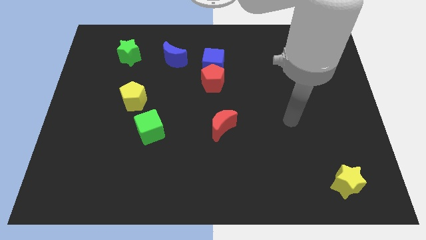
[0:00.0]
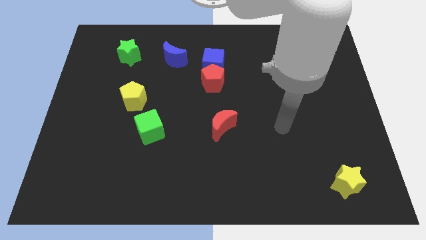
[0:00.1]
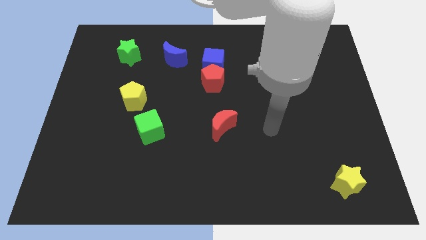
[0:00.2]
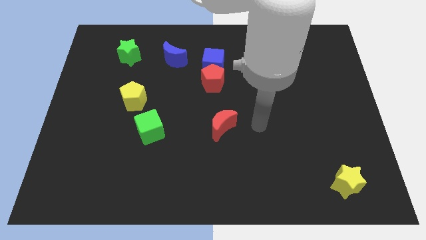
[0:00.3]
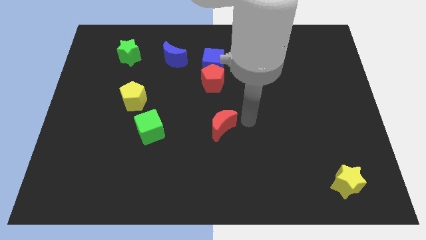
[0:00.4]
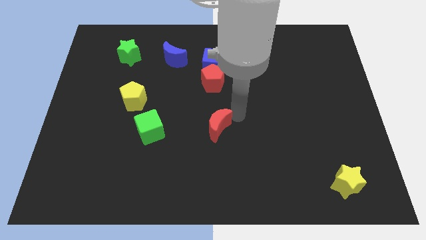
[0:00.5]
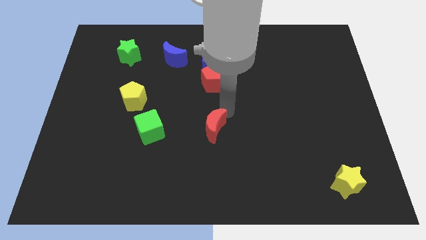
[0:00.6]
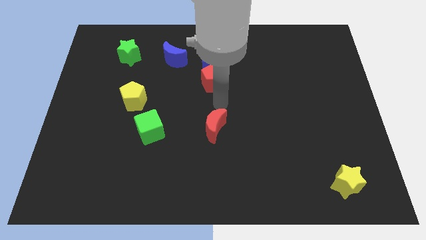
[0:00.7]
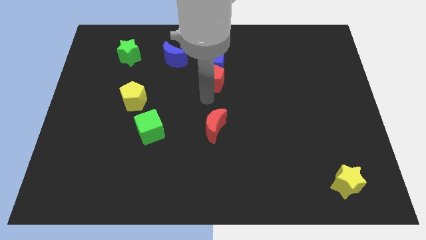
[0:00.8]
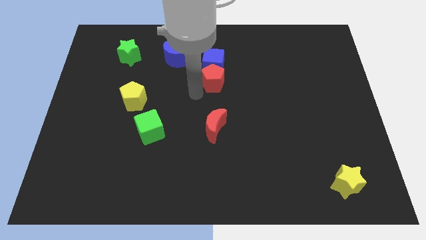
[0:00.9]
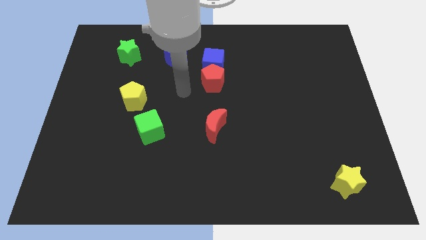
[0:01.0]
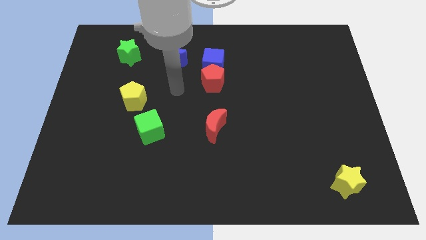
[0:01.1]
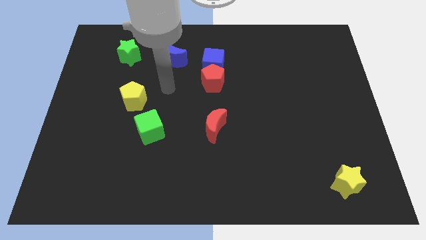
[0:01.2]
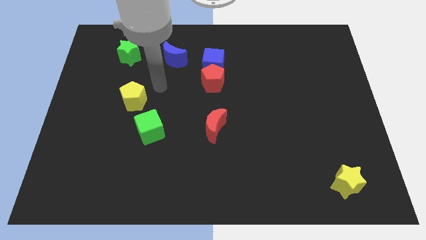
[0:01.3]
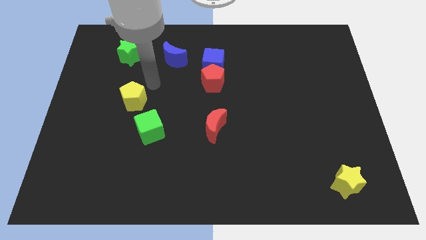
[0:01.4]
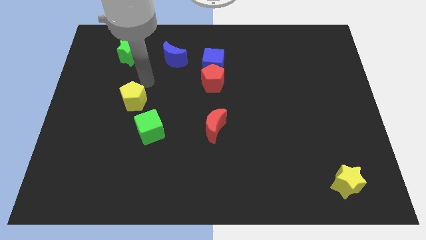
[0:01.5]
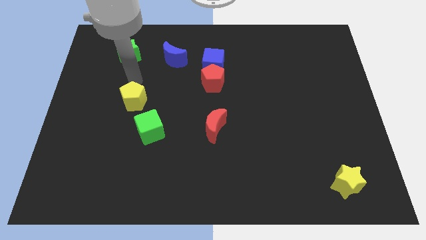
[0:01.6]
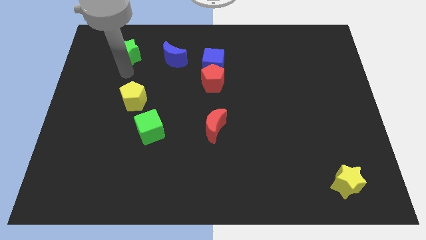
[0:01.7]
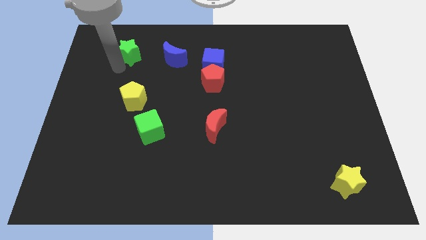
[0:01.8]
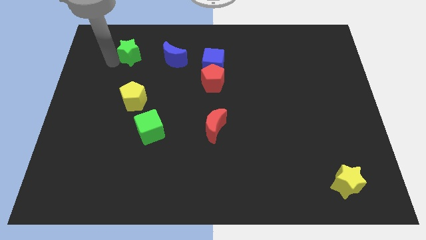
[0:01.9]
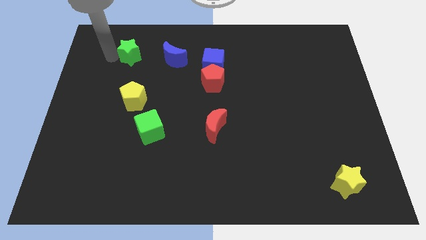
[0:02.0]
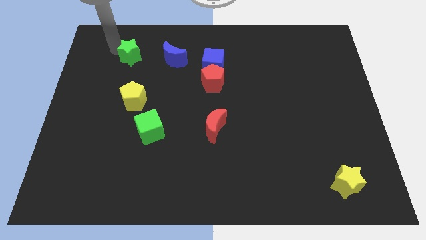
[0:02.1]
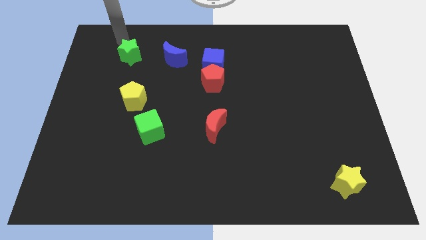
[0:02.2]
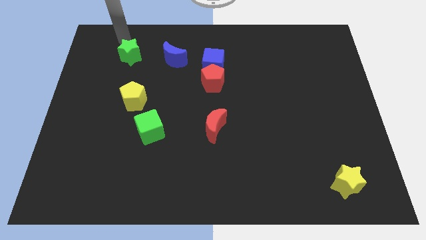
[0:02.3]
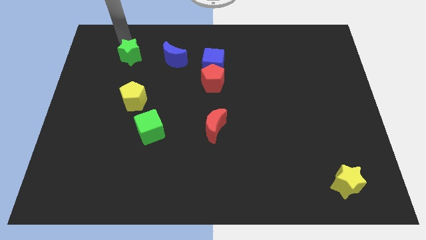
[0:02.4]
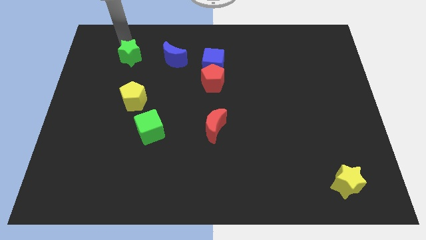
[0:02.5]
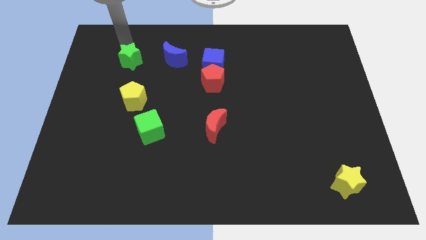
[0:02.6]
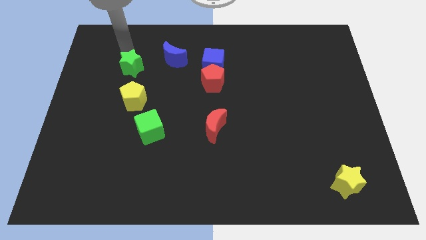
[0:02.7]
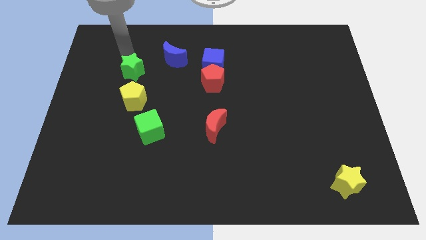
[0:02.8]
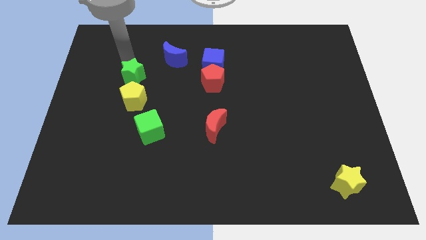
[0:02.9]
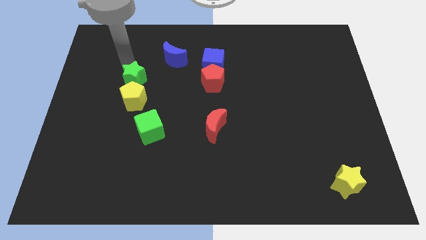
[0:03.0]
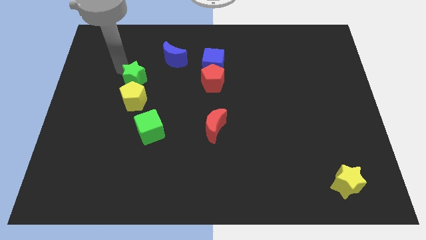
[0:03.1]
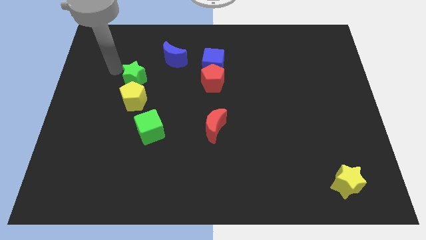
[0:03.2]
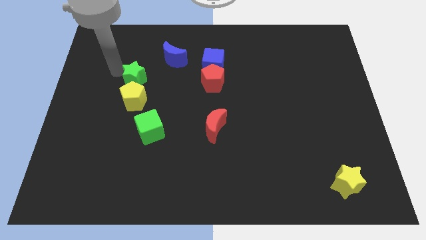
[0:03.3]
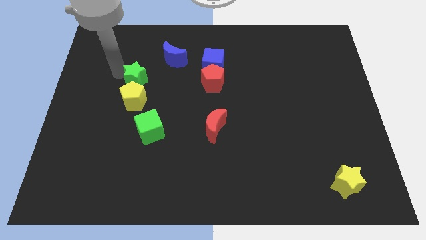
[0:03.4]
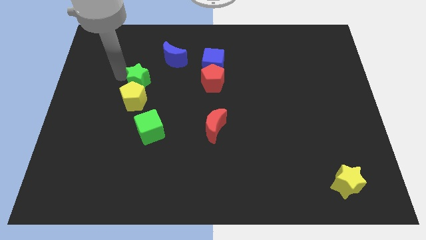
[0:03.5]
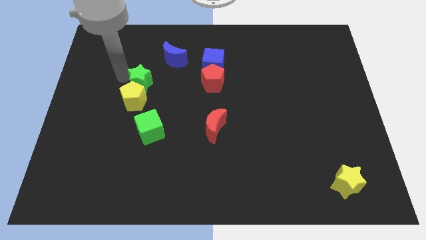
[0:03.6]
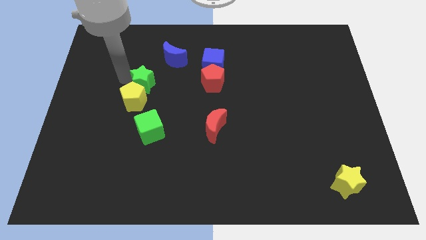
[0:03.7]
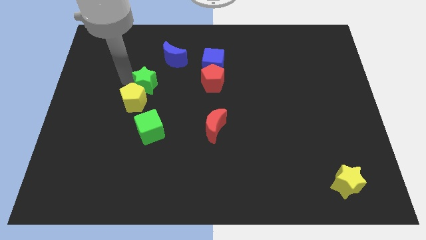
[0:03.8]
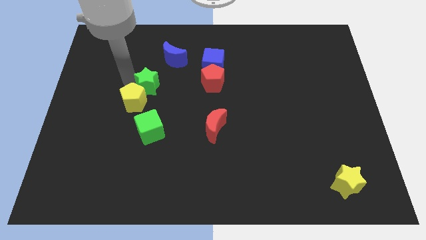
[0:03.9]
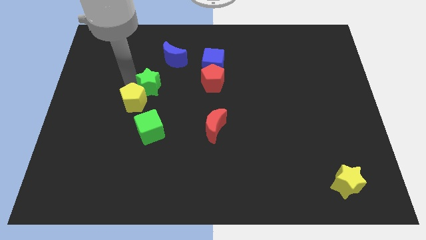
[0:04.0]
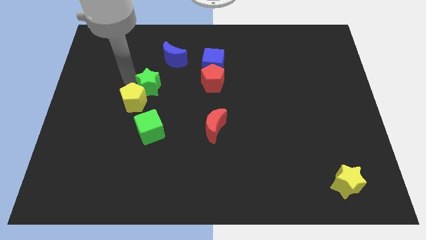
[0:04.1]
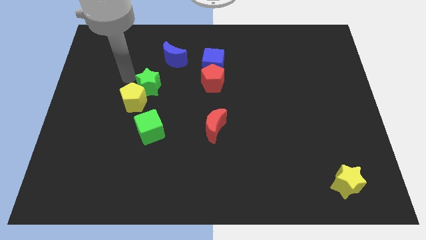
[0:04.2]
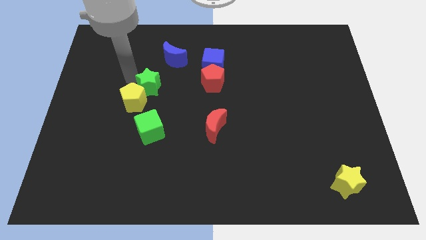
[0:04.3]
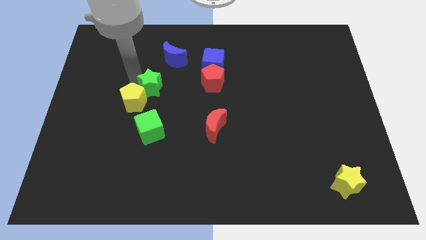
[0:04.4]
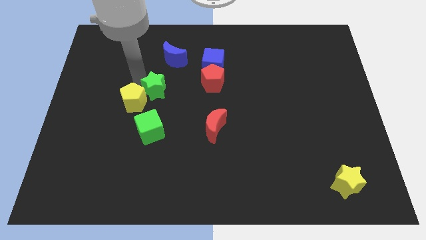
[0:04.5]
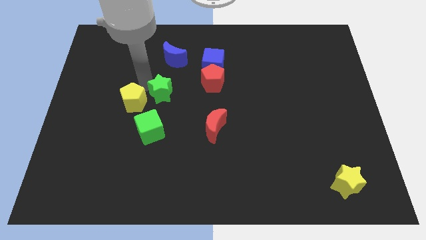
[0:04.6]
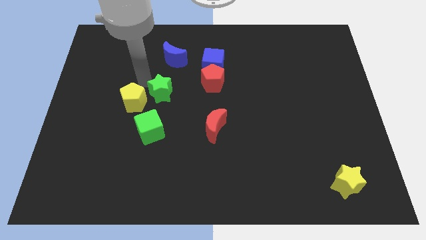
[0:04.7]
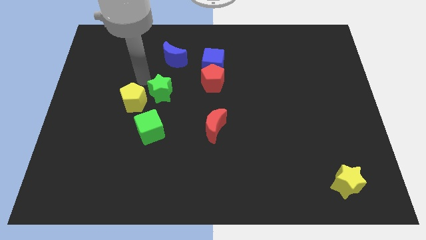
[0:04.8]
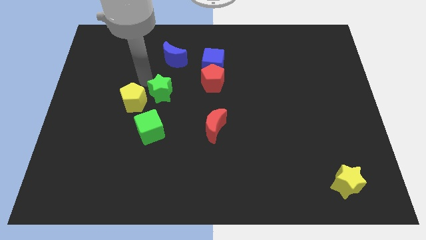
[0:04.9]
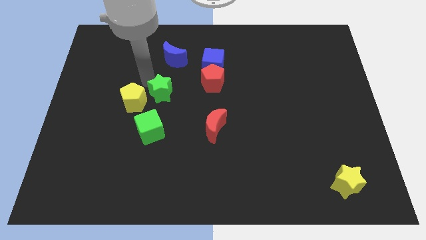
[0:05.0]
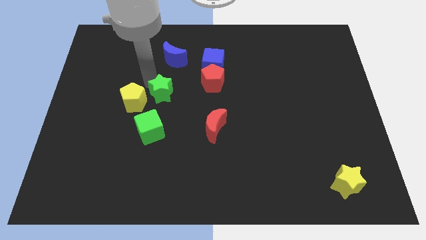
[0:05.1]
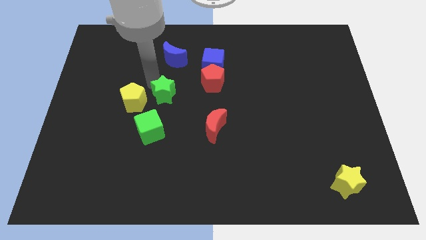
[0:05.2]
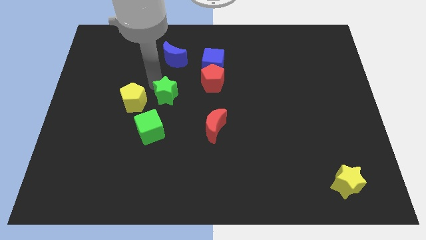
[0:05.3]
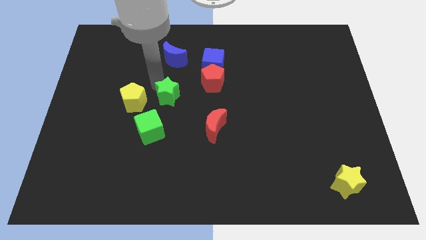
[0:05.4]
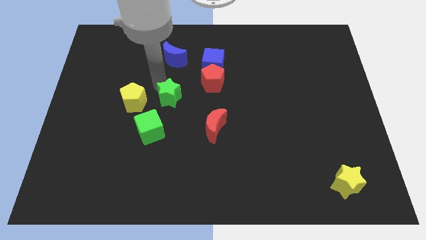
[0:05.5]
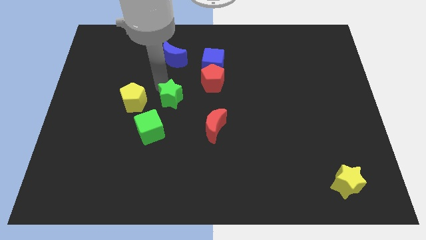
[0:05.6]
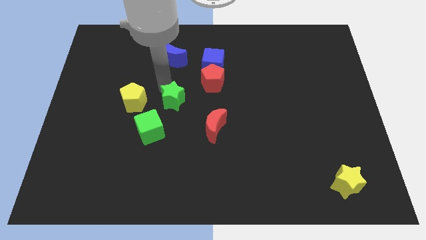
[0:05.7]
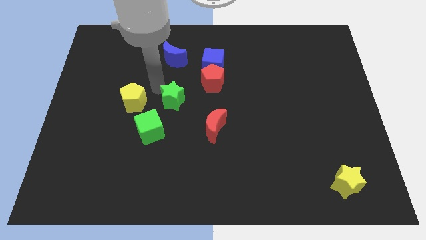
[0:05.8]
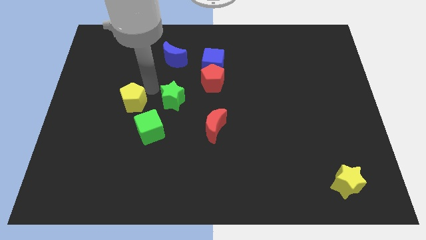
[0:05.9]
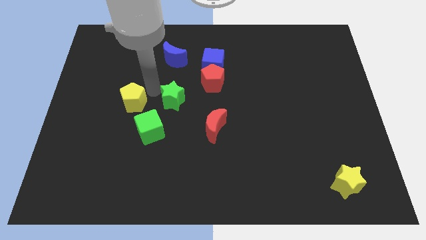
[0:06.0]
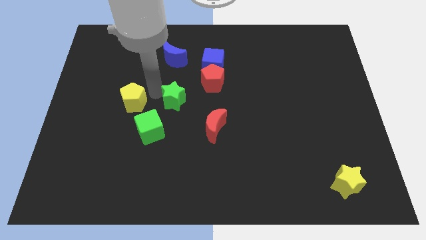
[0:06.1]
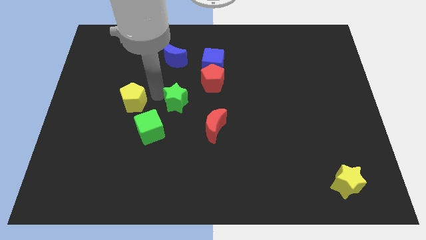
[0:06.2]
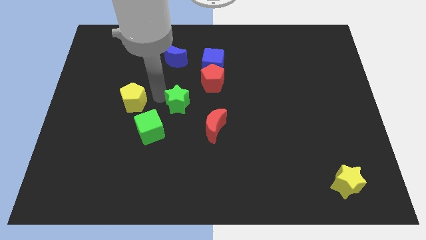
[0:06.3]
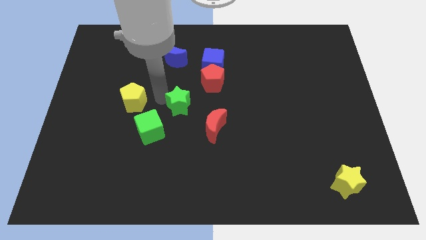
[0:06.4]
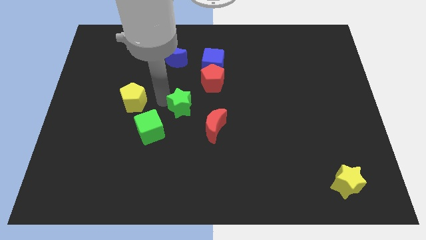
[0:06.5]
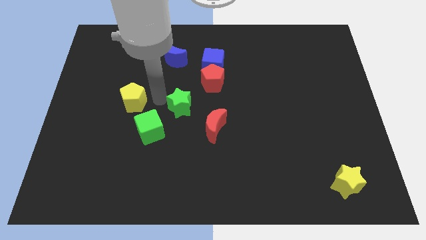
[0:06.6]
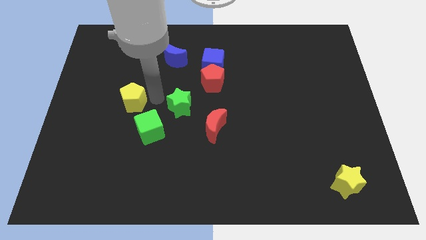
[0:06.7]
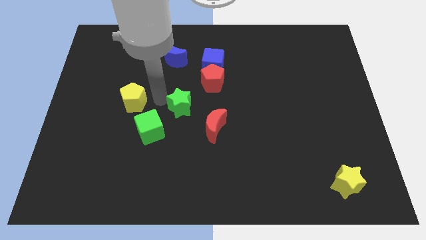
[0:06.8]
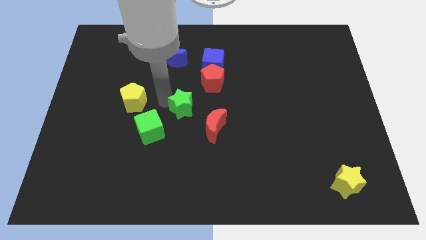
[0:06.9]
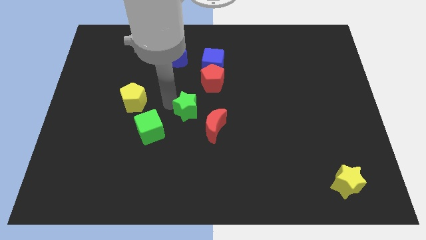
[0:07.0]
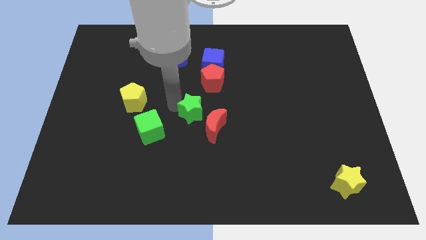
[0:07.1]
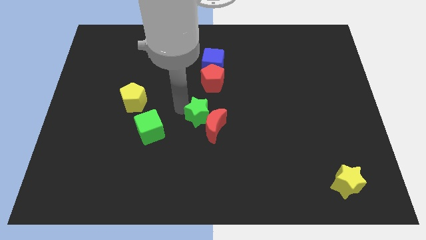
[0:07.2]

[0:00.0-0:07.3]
push the green star next to the red moon
